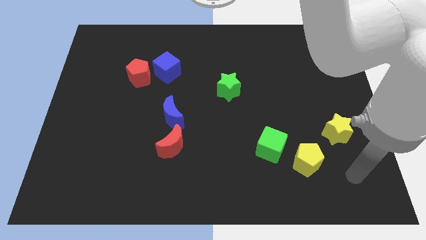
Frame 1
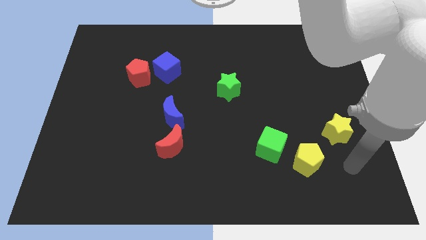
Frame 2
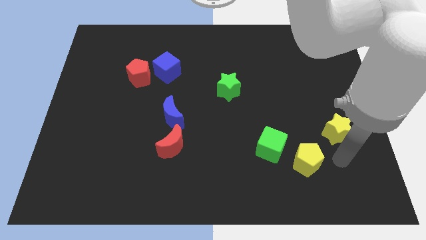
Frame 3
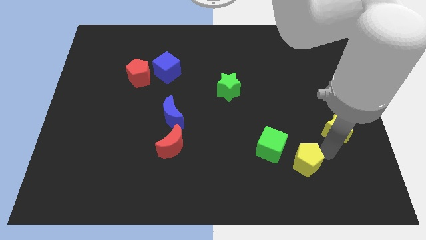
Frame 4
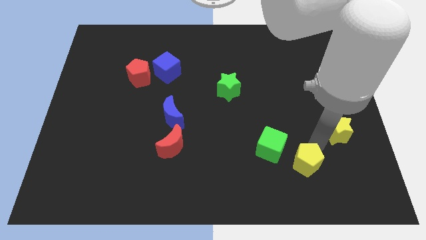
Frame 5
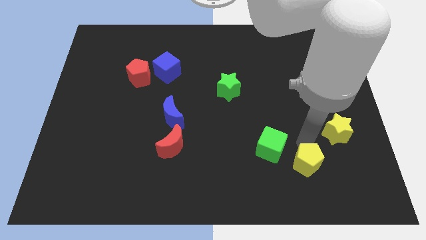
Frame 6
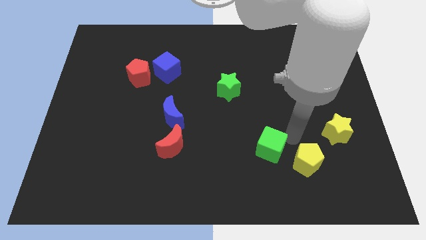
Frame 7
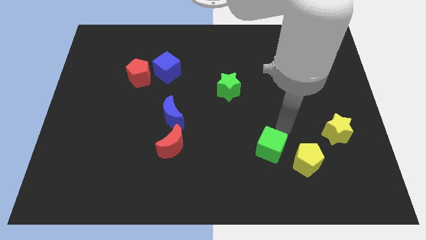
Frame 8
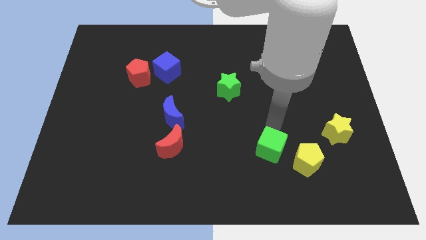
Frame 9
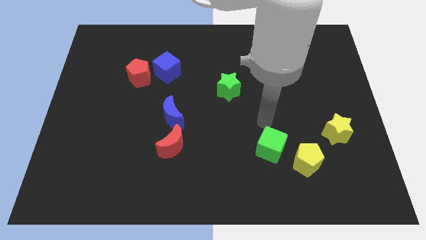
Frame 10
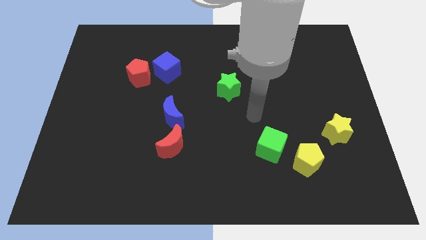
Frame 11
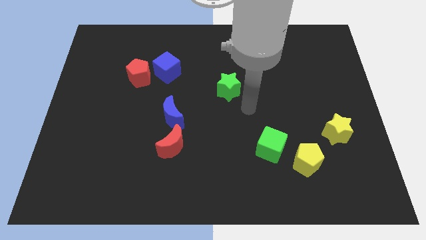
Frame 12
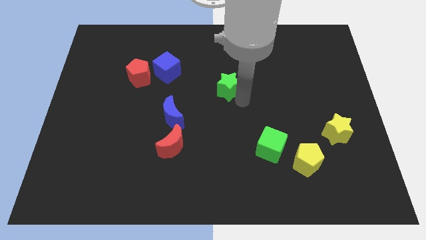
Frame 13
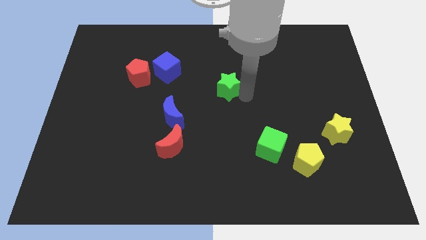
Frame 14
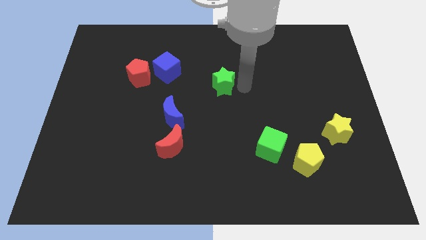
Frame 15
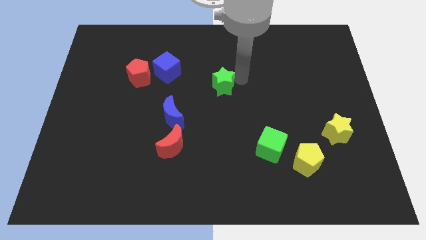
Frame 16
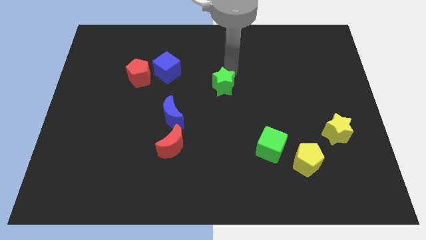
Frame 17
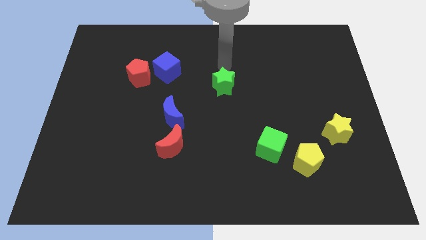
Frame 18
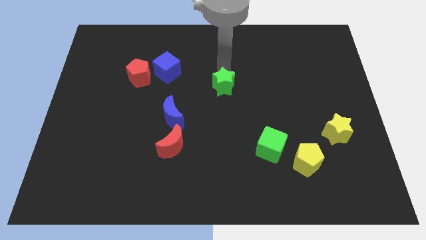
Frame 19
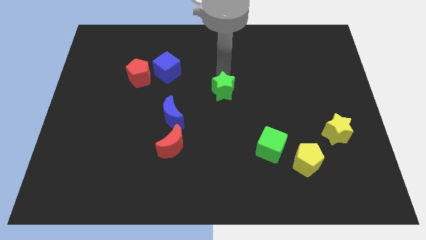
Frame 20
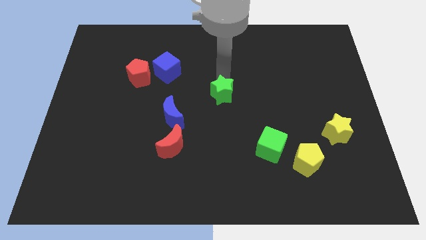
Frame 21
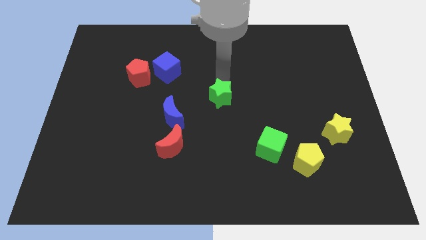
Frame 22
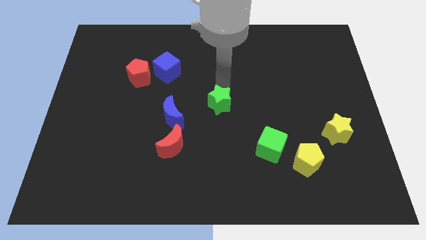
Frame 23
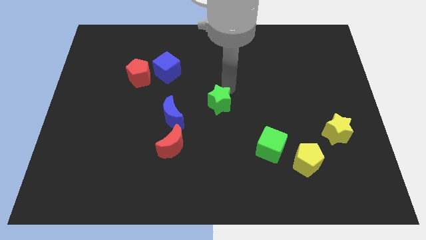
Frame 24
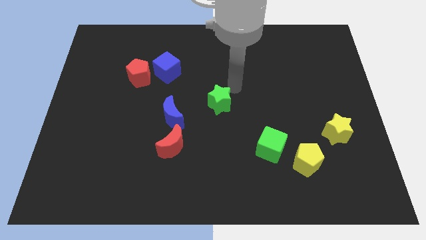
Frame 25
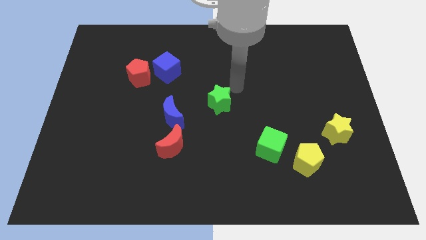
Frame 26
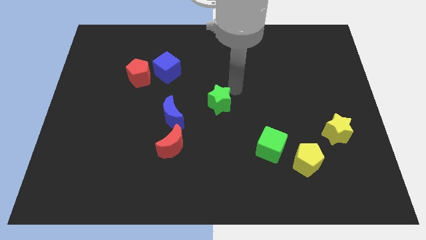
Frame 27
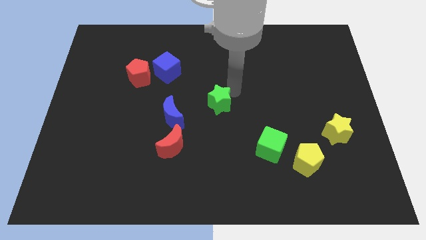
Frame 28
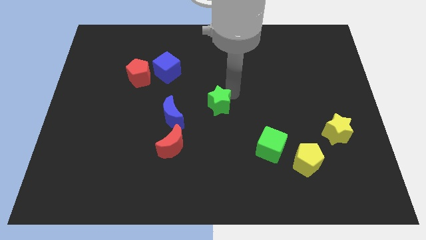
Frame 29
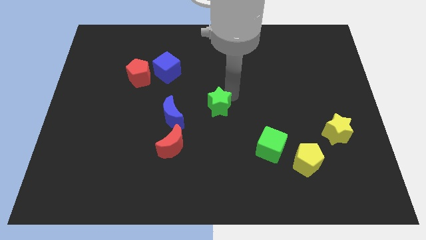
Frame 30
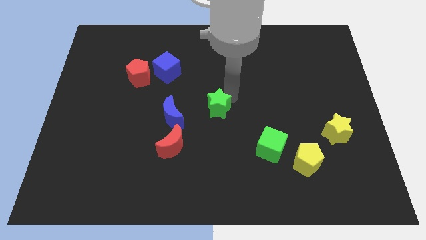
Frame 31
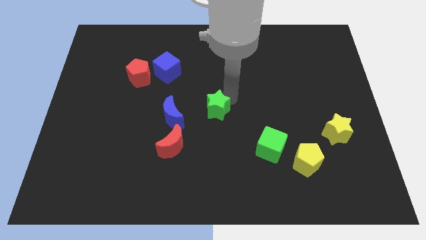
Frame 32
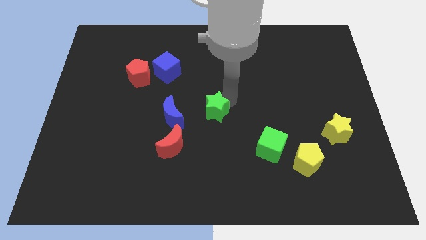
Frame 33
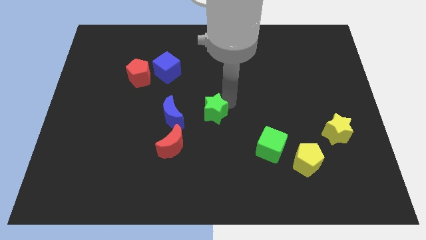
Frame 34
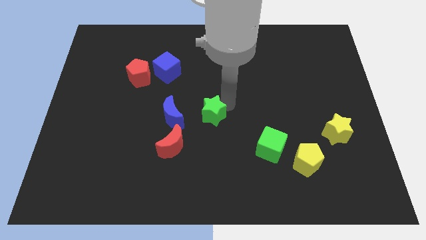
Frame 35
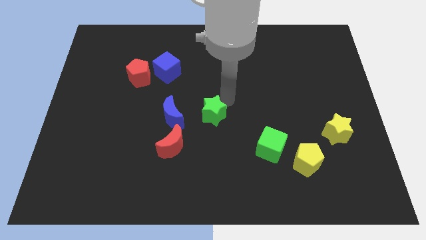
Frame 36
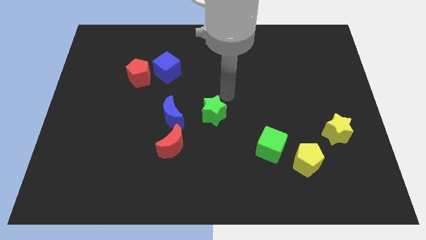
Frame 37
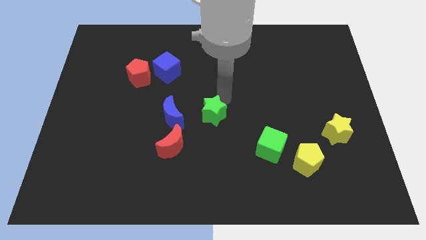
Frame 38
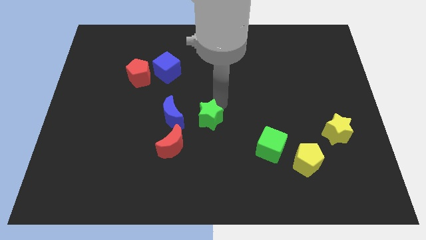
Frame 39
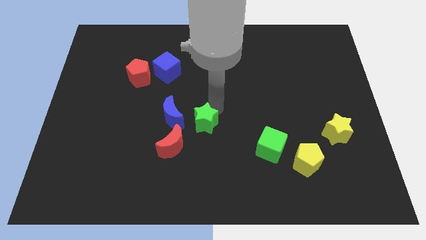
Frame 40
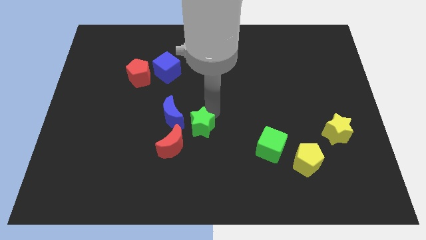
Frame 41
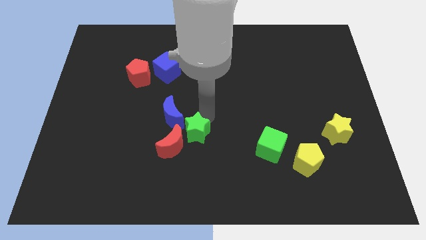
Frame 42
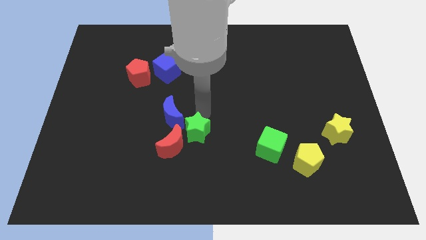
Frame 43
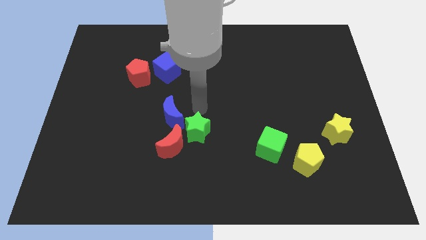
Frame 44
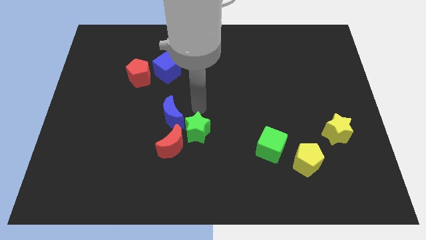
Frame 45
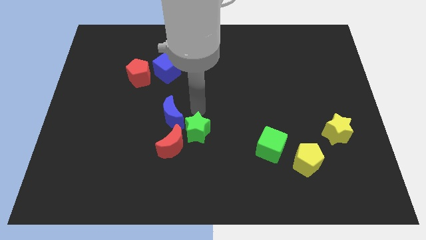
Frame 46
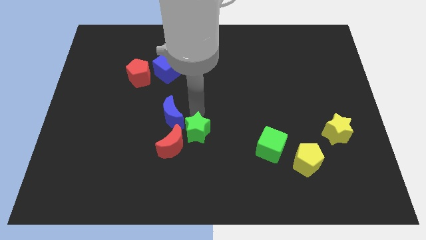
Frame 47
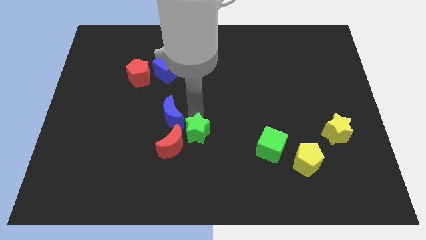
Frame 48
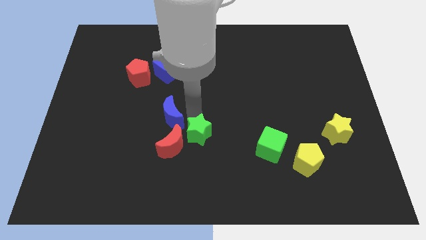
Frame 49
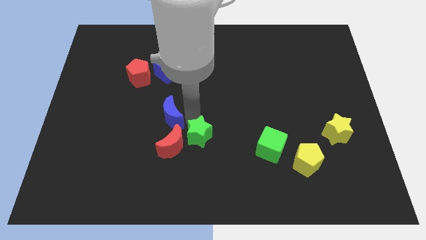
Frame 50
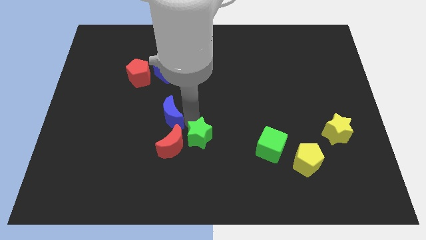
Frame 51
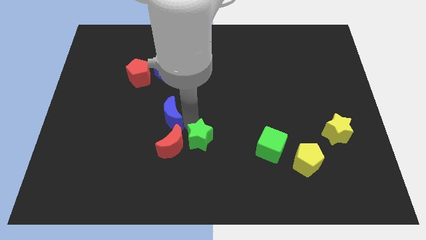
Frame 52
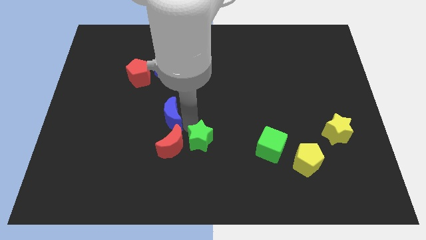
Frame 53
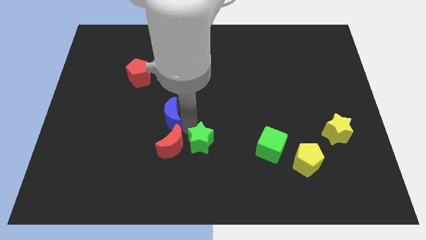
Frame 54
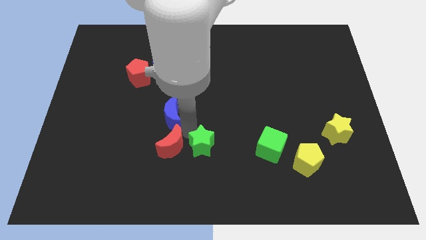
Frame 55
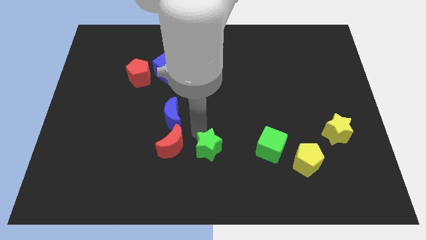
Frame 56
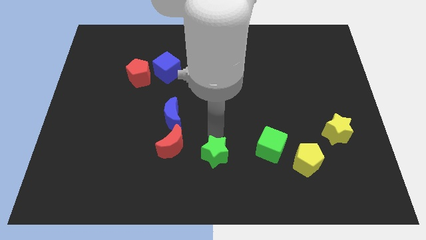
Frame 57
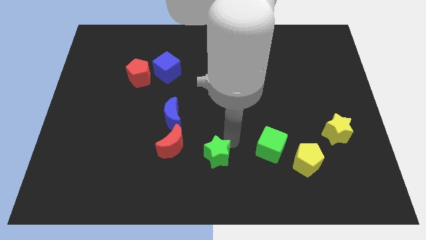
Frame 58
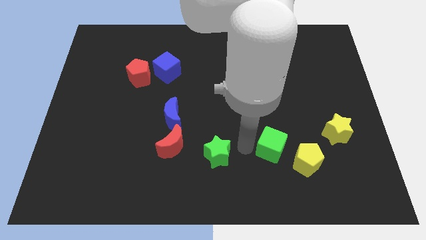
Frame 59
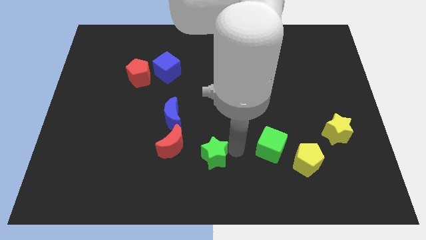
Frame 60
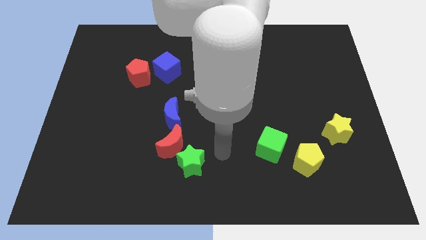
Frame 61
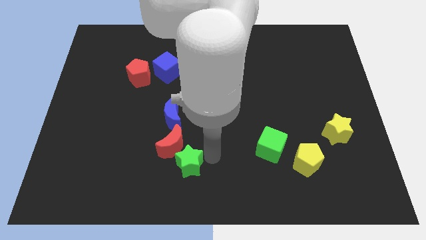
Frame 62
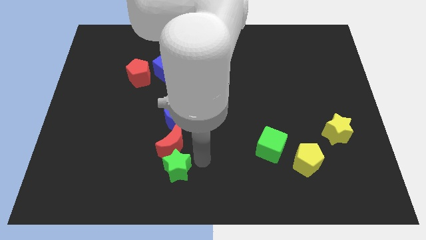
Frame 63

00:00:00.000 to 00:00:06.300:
put the green star to the bottom left side of the red moon
